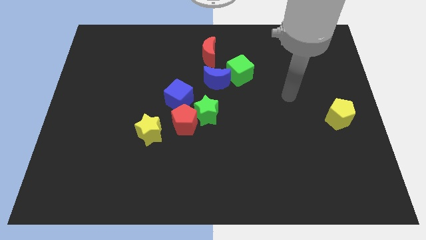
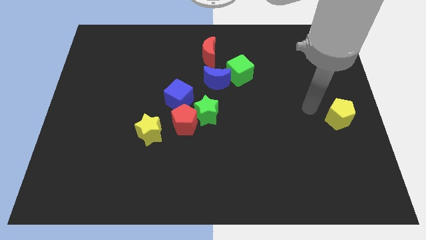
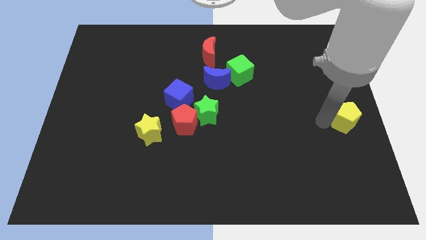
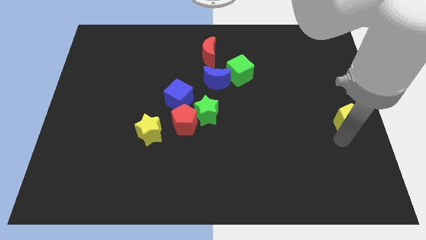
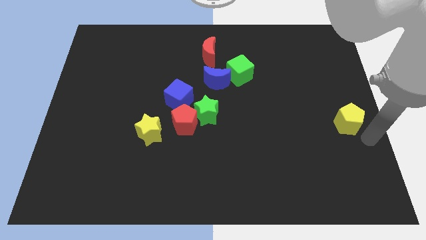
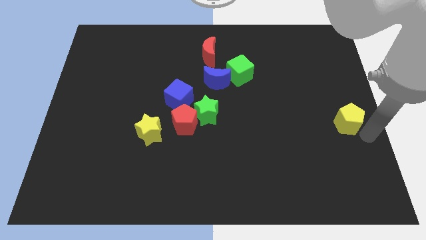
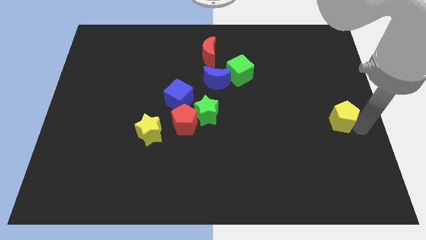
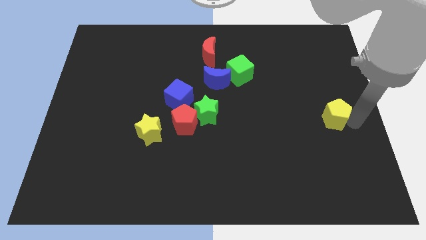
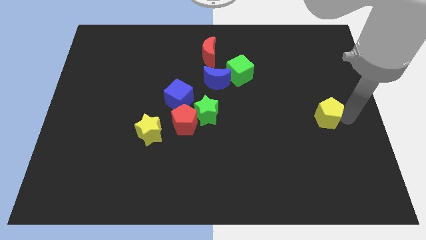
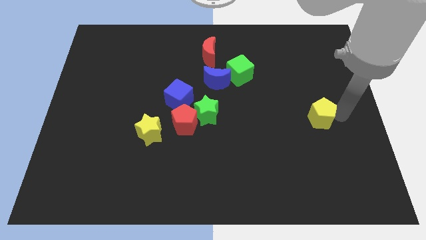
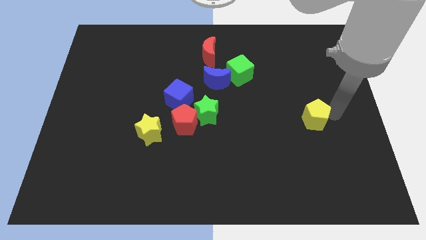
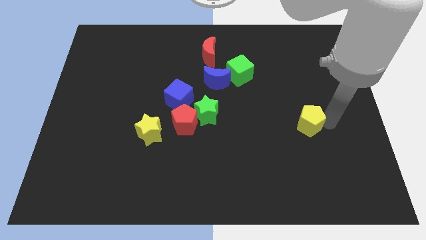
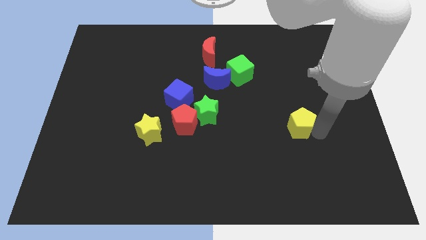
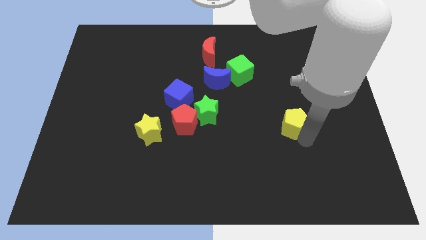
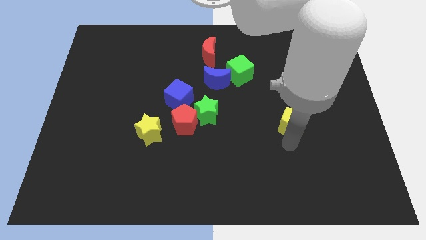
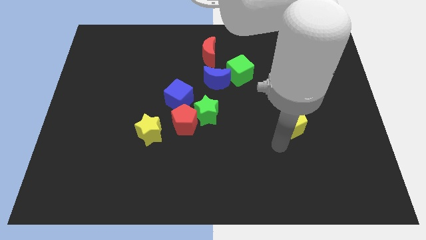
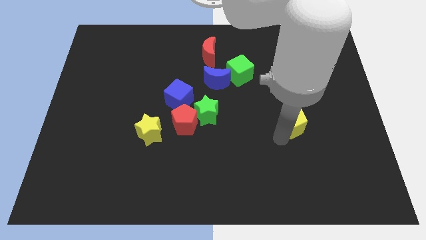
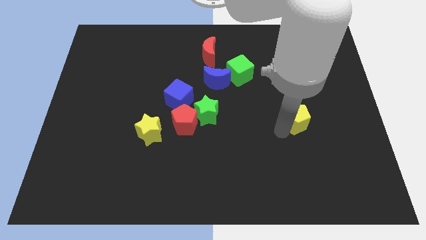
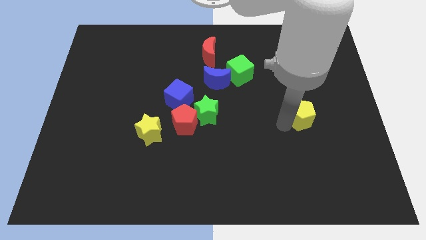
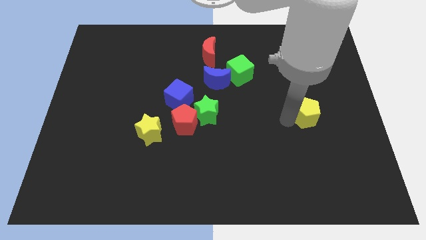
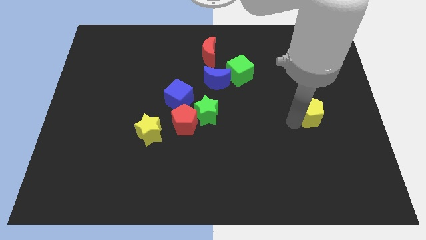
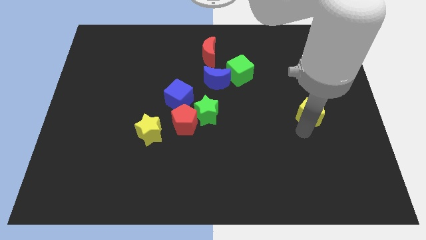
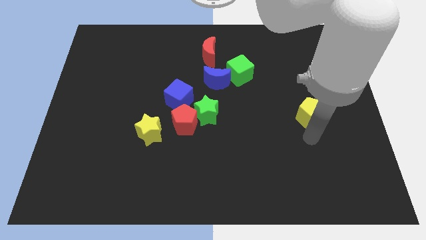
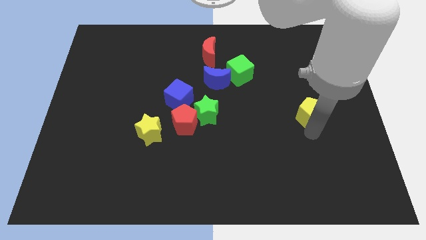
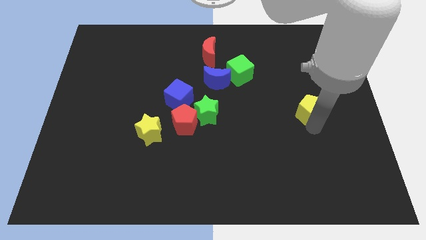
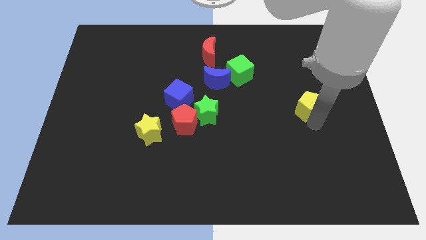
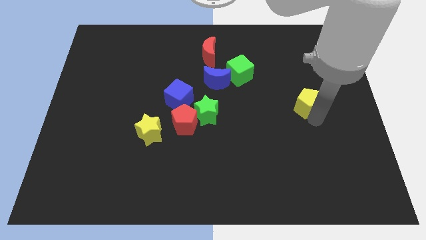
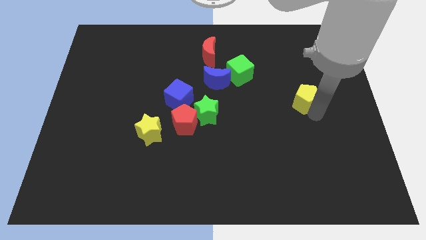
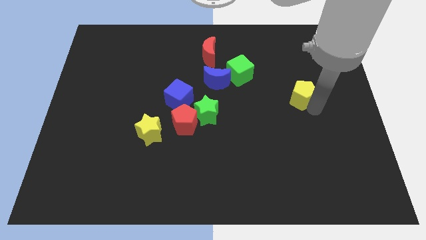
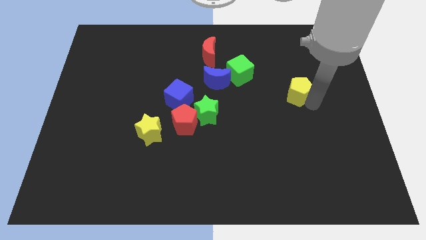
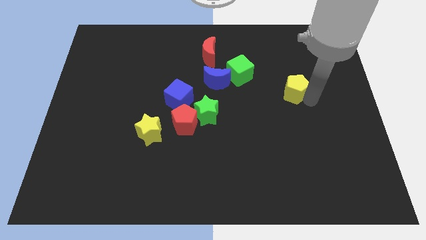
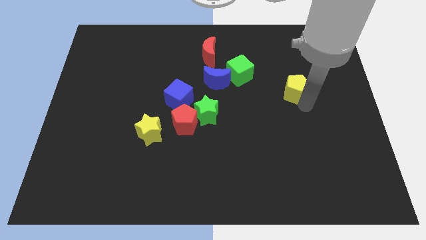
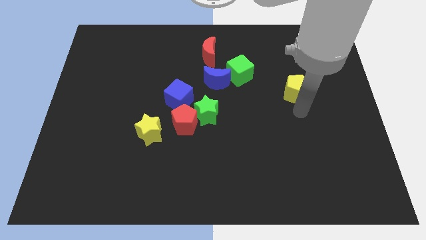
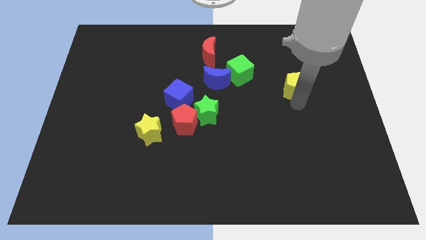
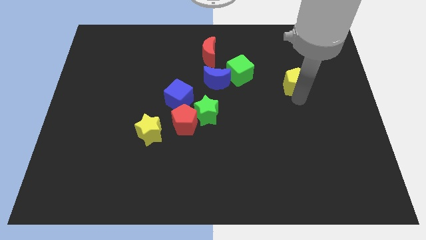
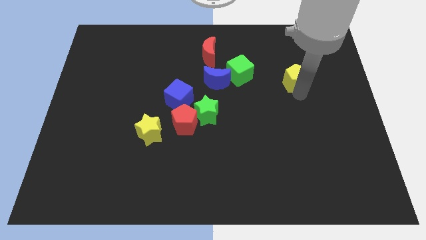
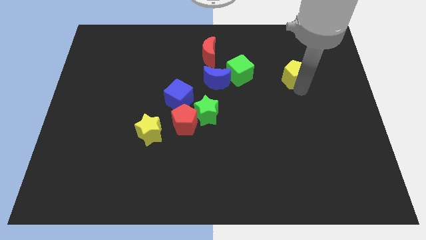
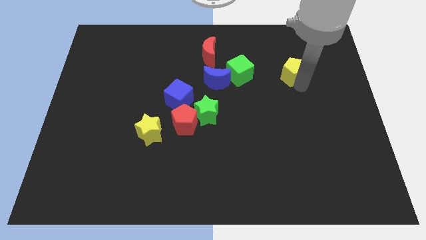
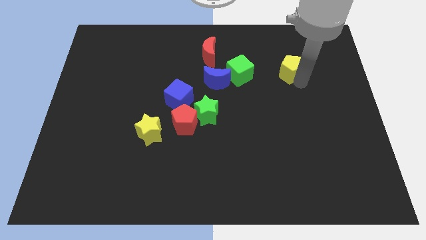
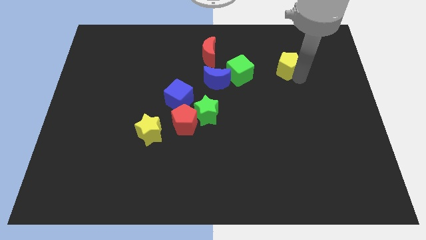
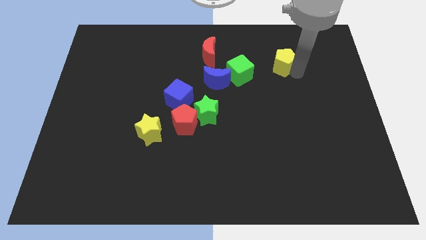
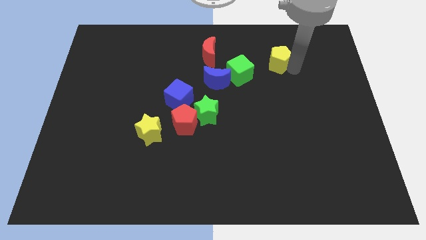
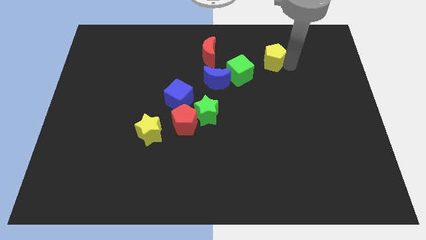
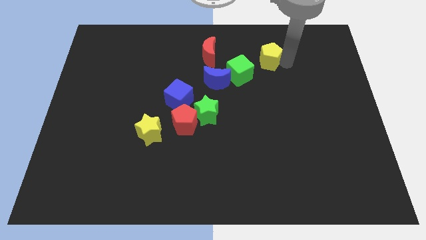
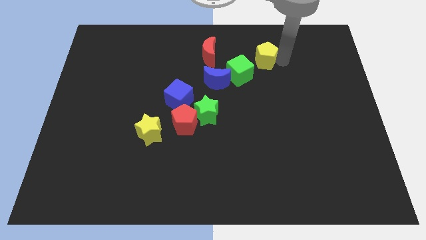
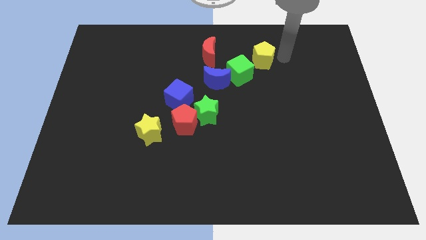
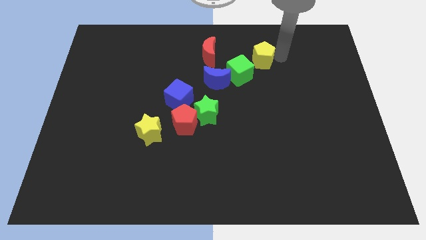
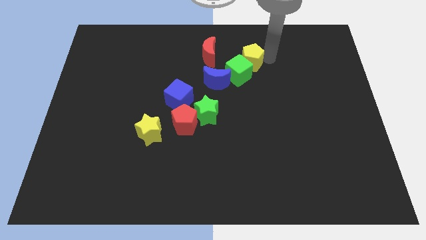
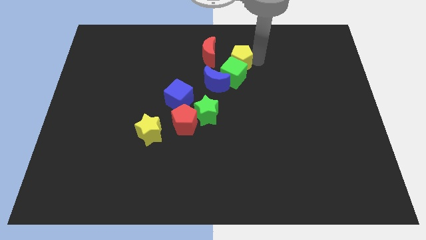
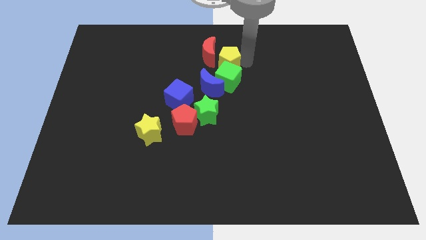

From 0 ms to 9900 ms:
push the yellow pentagon next to the red moon

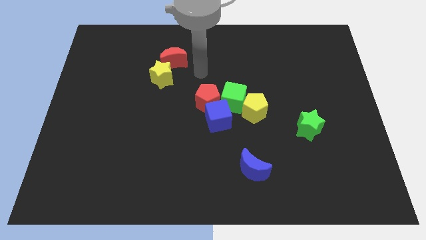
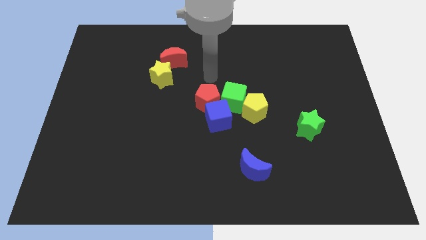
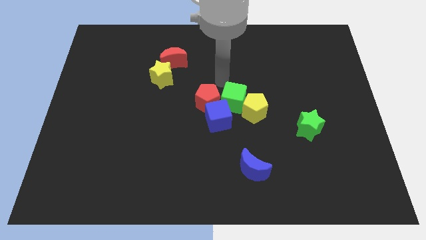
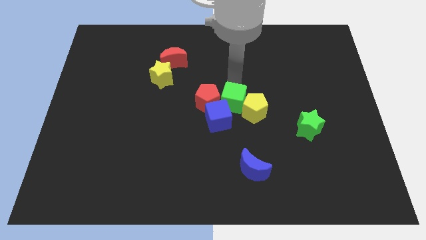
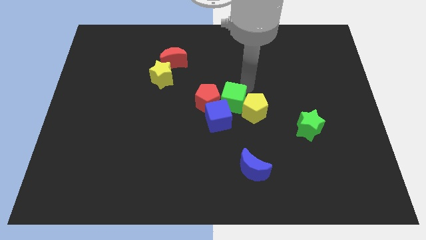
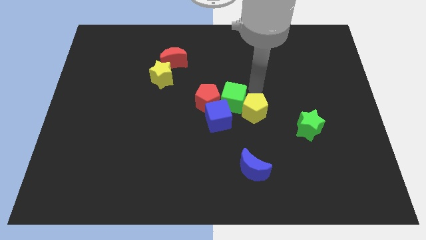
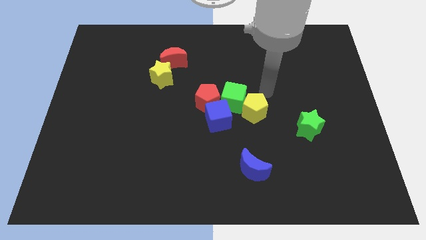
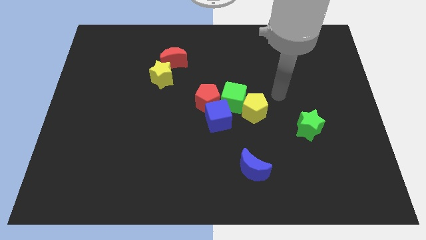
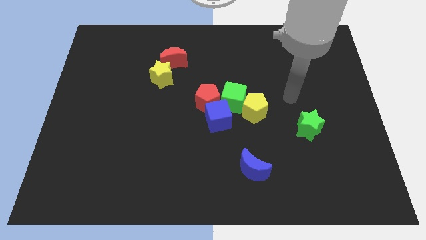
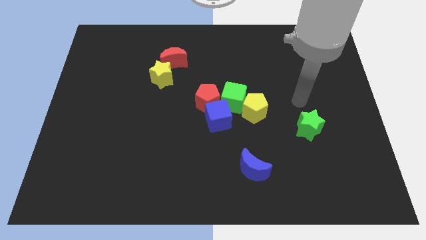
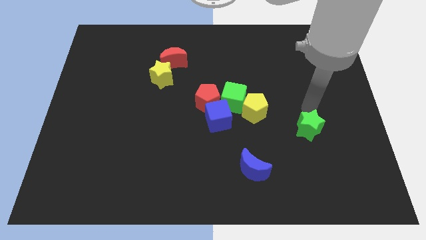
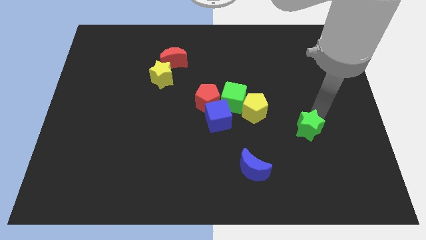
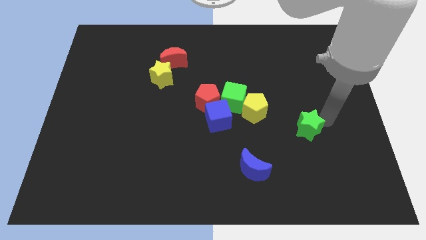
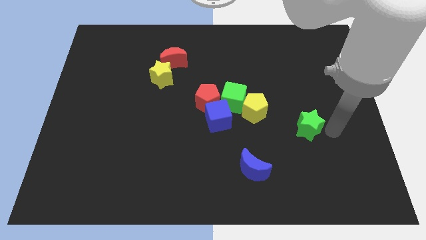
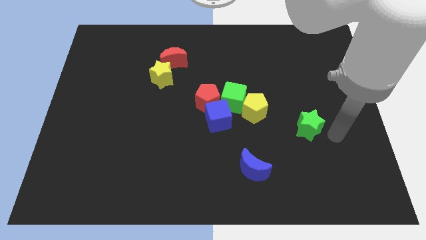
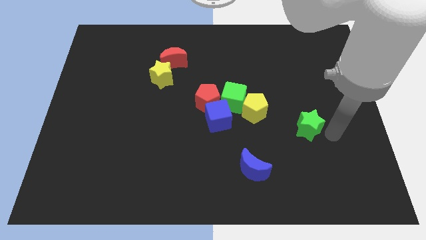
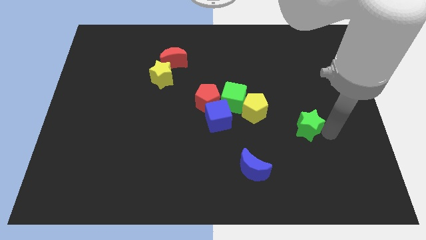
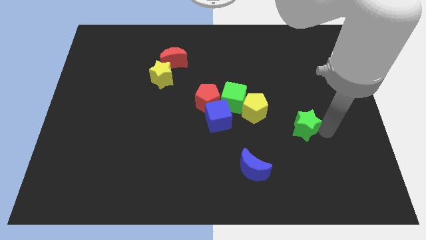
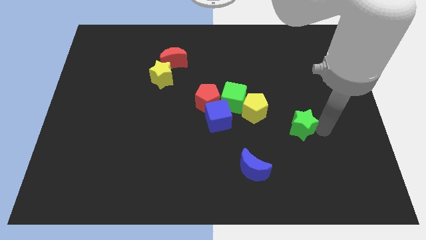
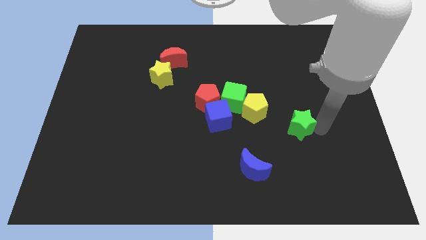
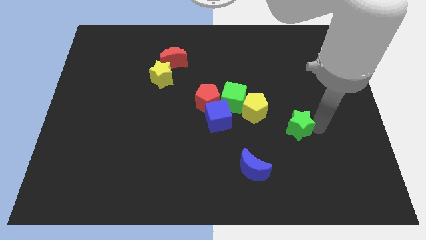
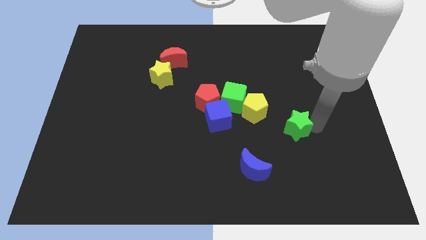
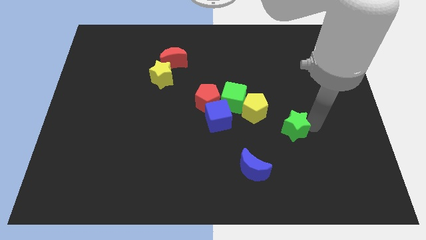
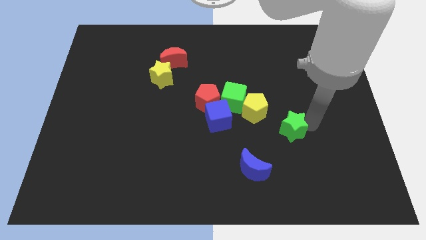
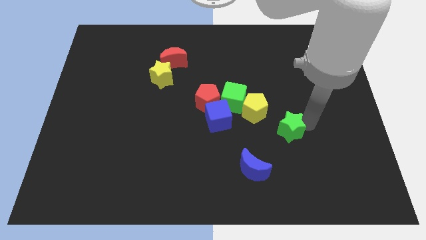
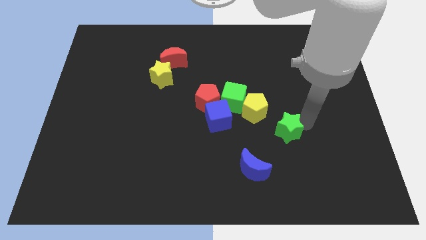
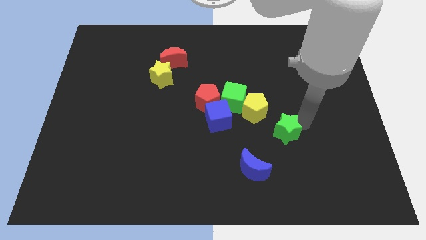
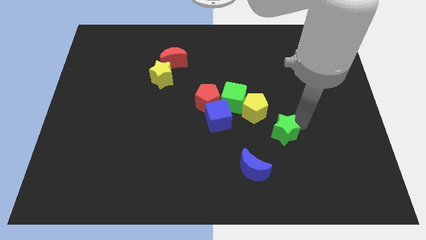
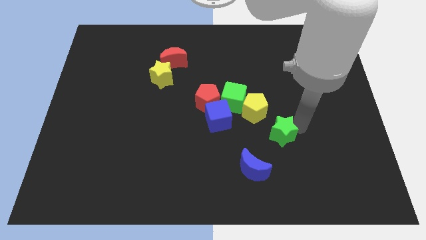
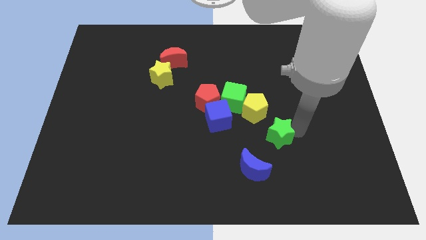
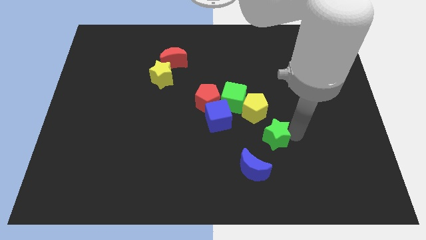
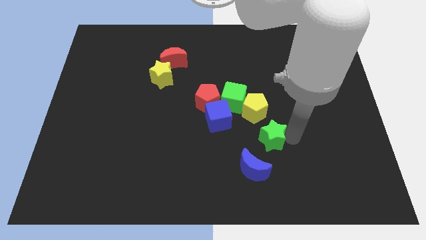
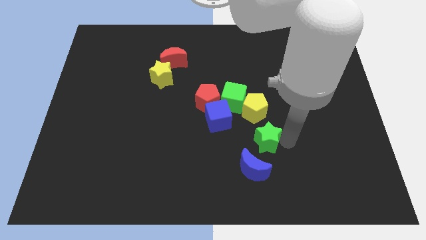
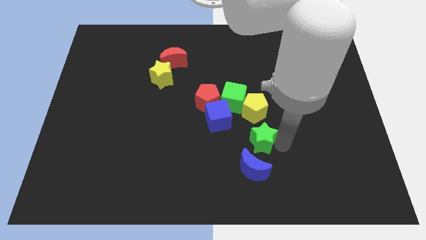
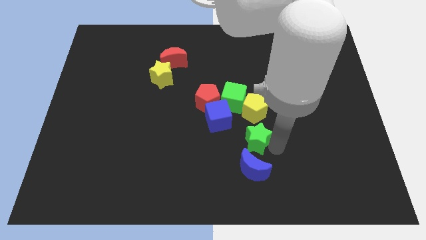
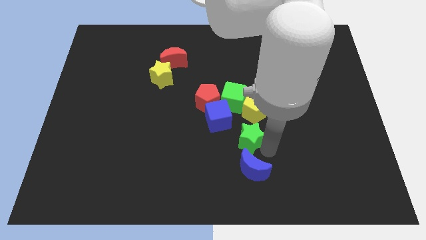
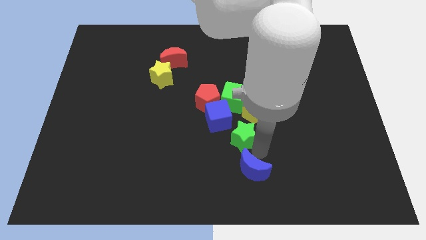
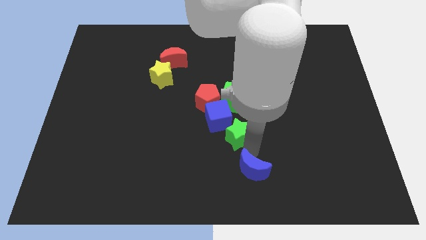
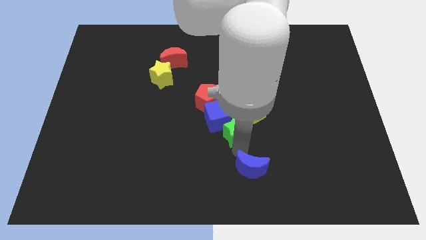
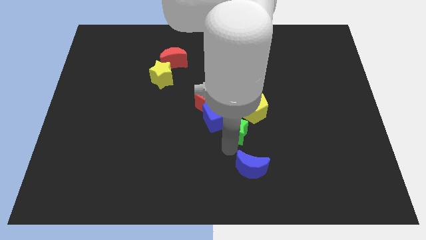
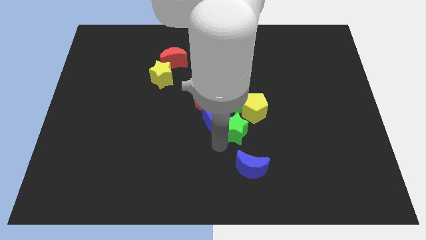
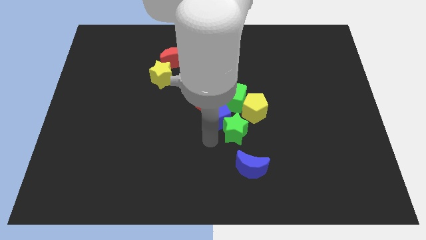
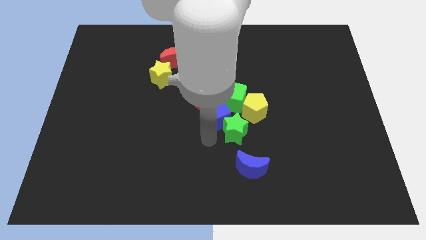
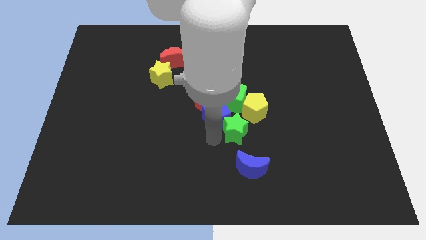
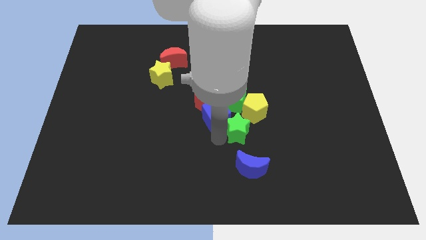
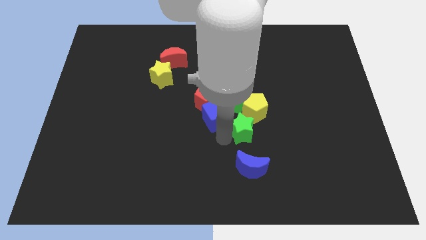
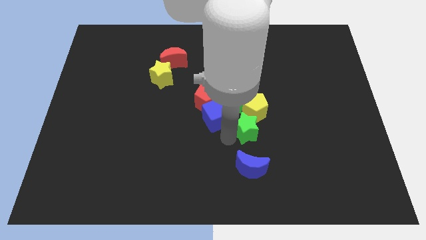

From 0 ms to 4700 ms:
put the green star to the yellow pentagon
